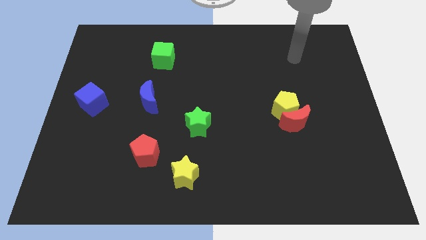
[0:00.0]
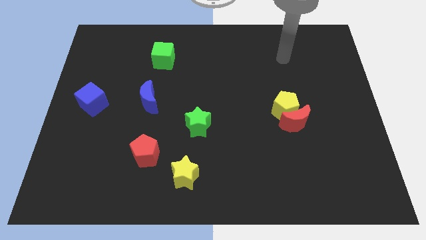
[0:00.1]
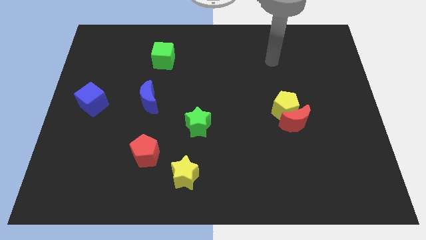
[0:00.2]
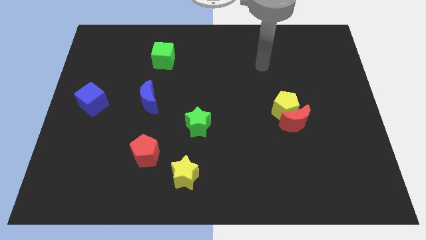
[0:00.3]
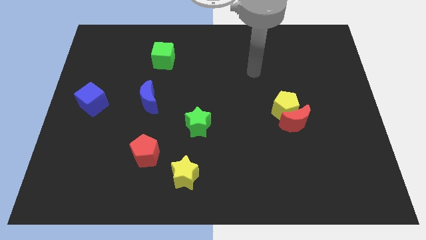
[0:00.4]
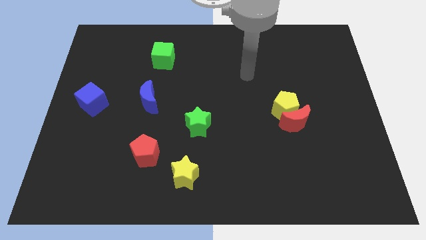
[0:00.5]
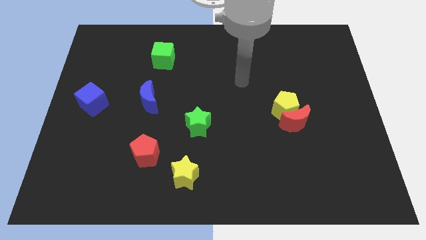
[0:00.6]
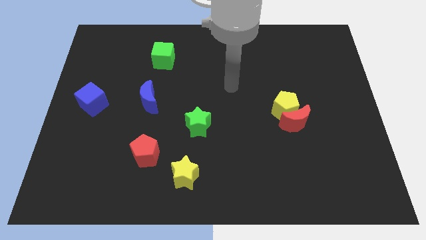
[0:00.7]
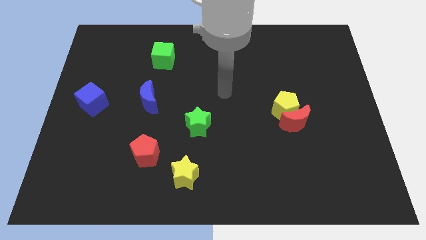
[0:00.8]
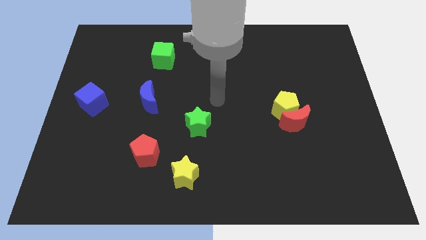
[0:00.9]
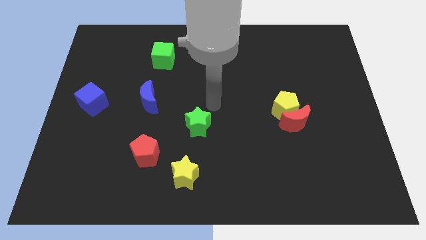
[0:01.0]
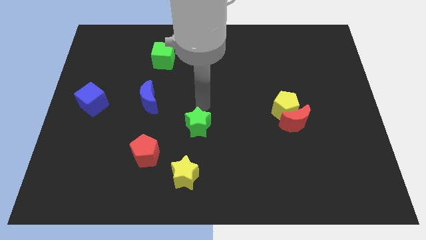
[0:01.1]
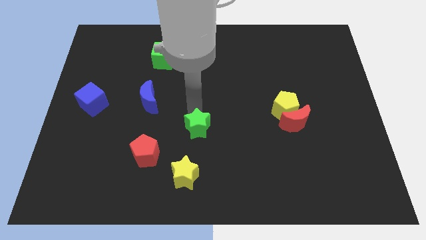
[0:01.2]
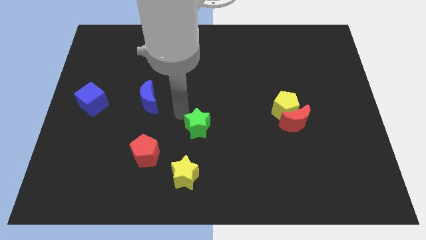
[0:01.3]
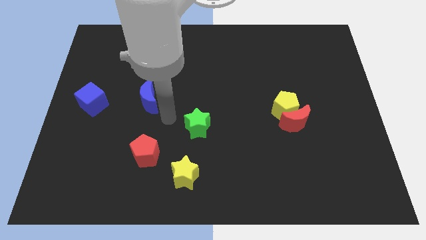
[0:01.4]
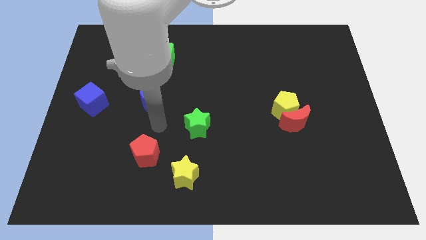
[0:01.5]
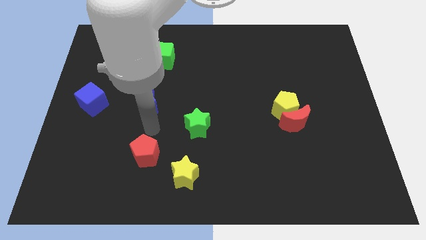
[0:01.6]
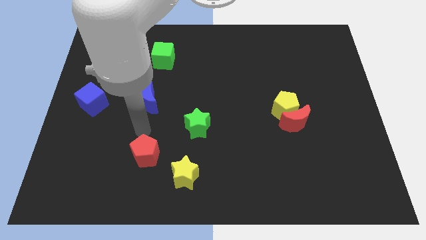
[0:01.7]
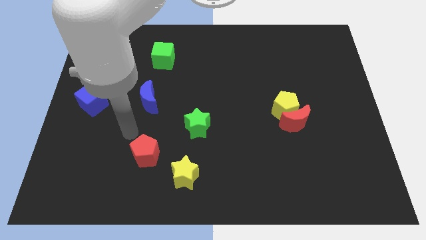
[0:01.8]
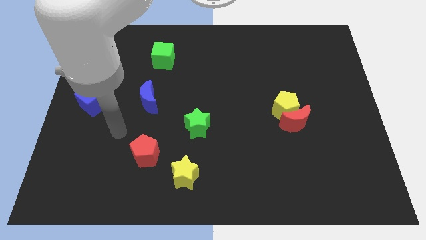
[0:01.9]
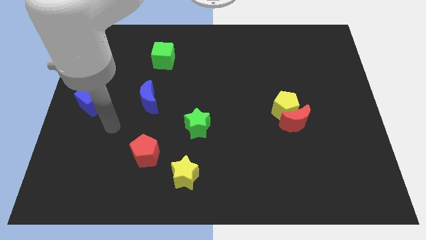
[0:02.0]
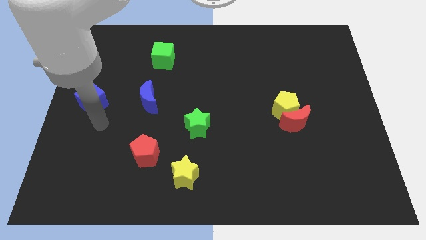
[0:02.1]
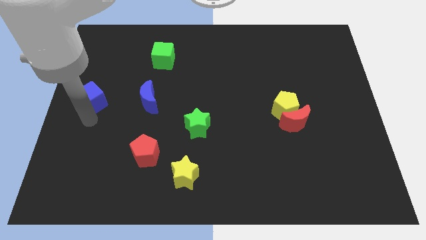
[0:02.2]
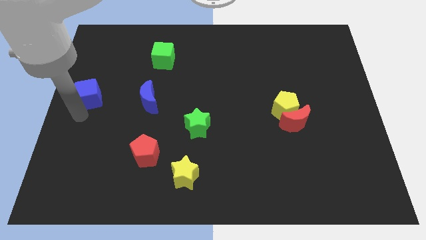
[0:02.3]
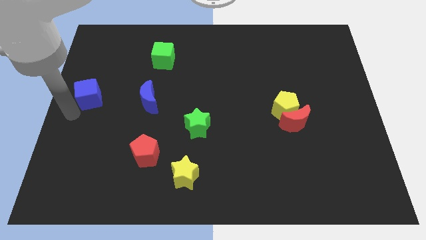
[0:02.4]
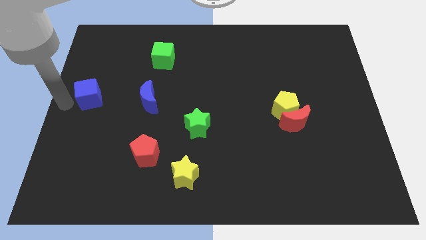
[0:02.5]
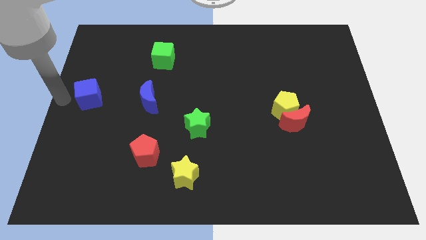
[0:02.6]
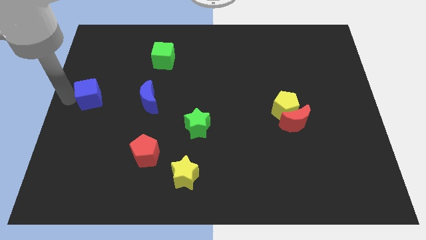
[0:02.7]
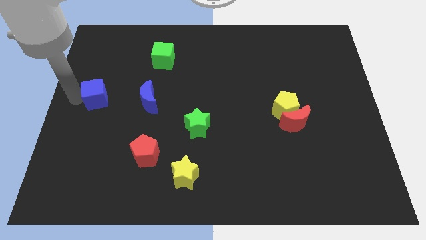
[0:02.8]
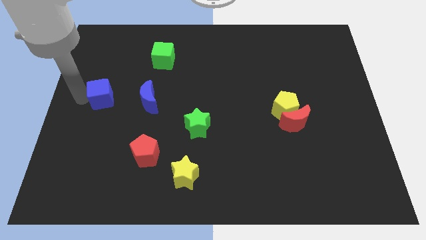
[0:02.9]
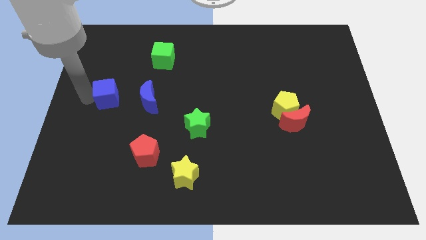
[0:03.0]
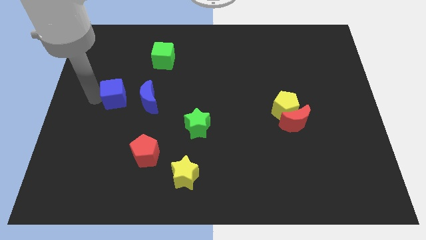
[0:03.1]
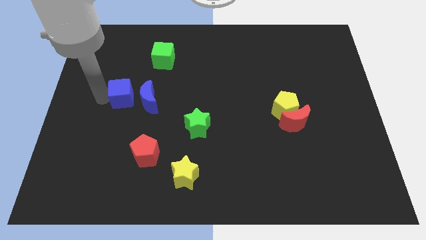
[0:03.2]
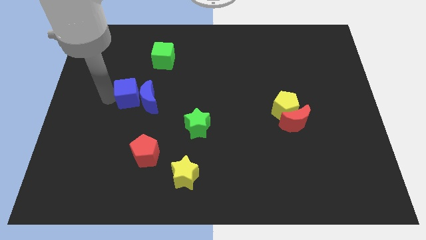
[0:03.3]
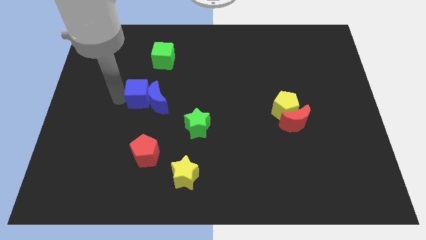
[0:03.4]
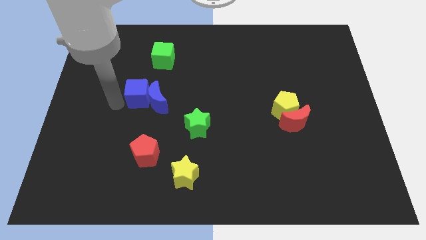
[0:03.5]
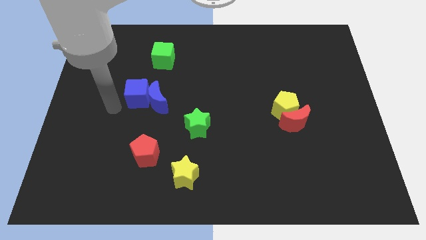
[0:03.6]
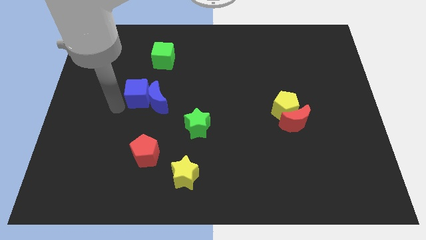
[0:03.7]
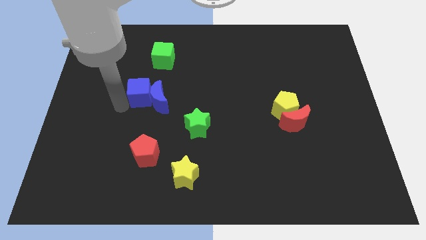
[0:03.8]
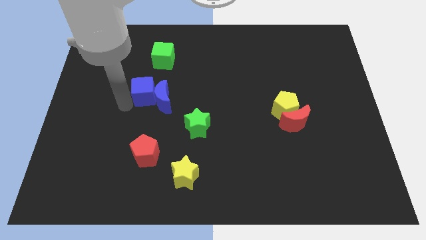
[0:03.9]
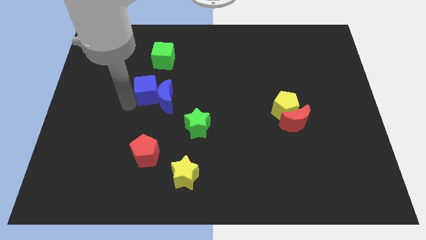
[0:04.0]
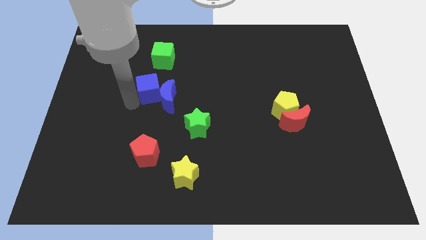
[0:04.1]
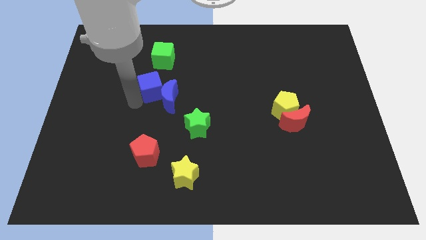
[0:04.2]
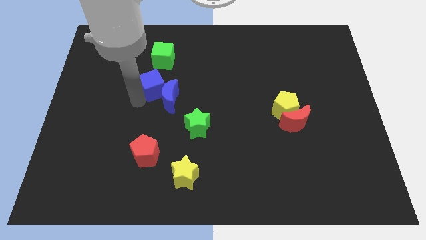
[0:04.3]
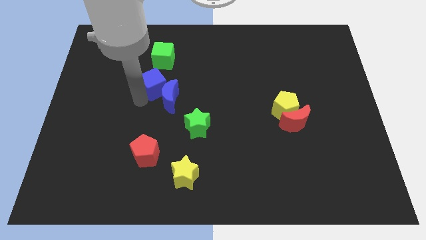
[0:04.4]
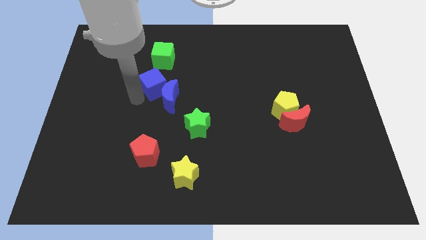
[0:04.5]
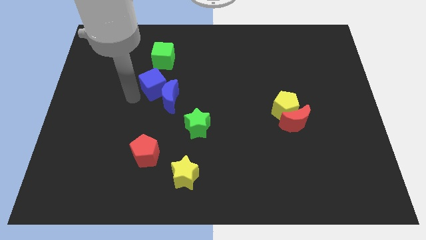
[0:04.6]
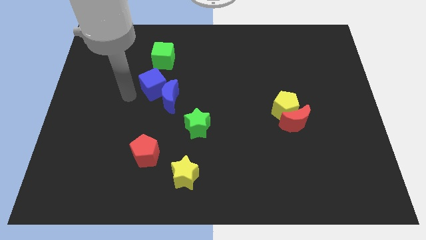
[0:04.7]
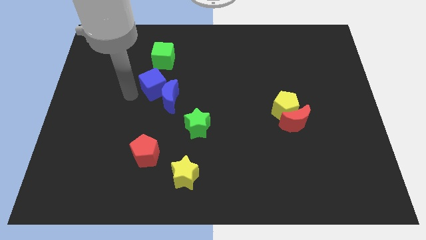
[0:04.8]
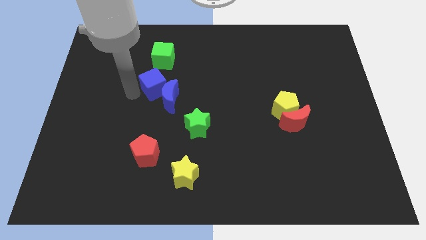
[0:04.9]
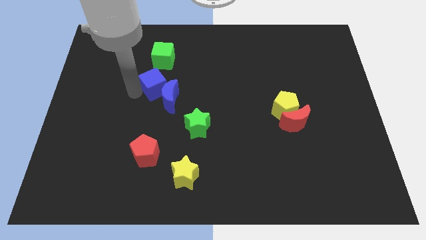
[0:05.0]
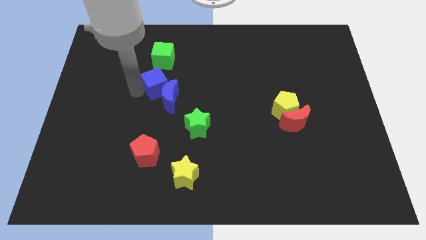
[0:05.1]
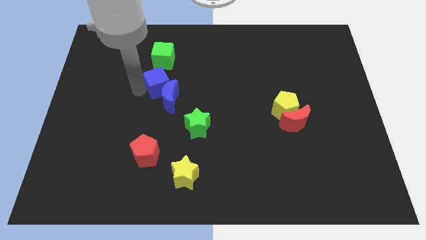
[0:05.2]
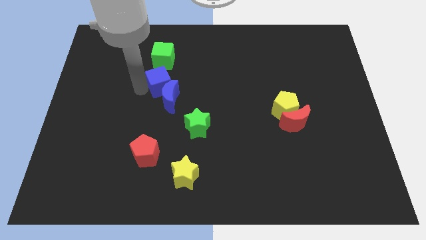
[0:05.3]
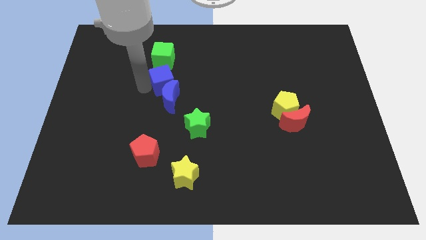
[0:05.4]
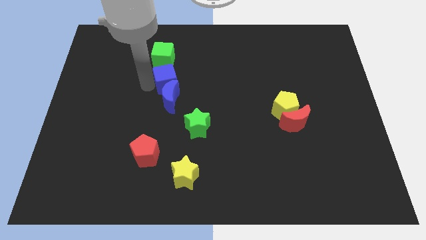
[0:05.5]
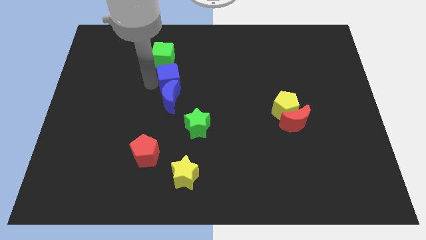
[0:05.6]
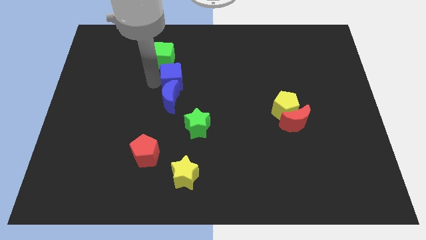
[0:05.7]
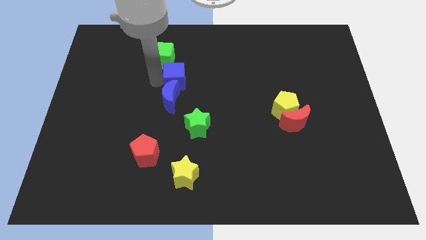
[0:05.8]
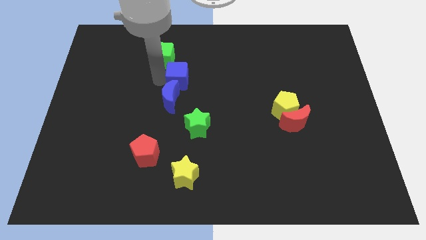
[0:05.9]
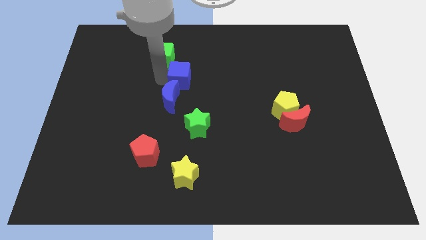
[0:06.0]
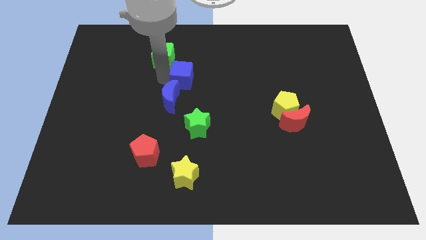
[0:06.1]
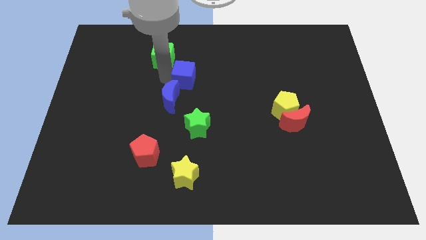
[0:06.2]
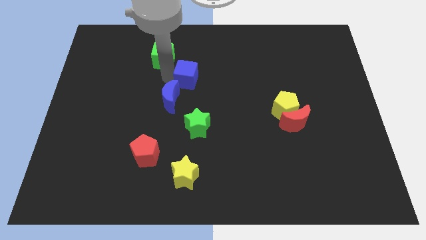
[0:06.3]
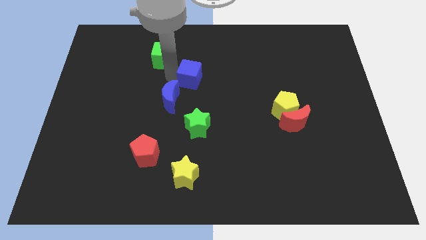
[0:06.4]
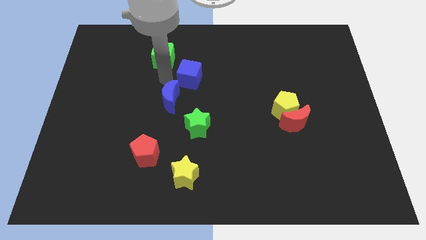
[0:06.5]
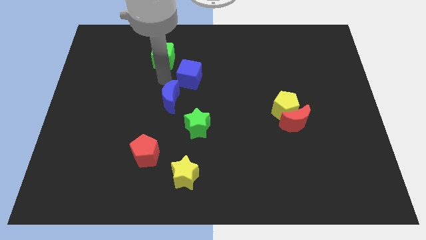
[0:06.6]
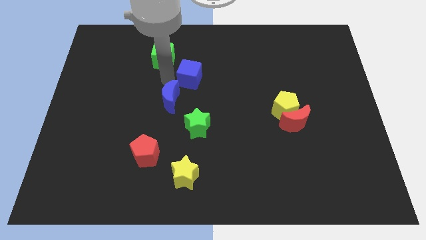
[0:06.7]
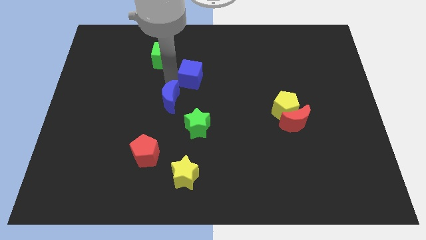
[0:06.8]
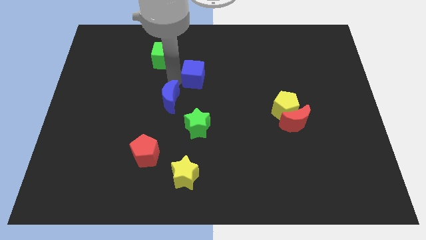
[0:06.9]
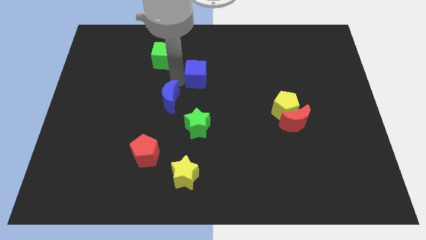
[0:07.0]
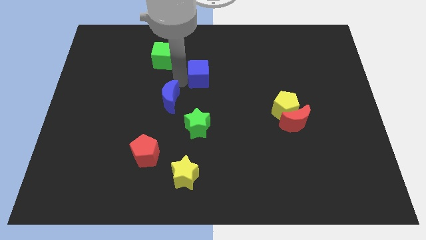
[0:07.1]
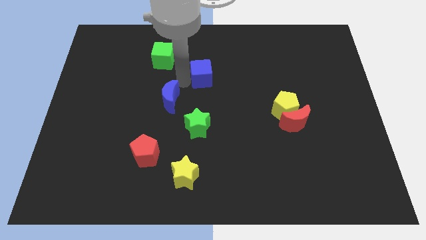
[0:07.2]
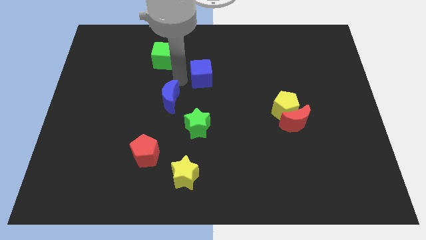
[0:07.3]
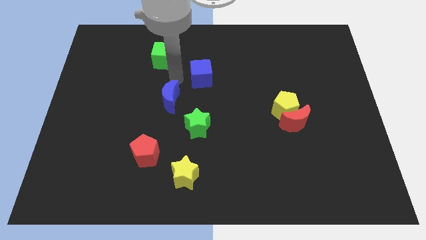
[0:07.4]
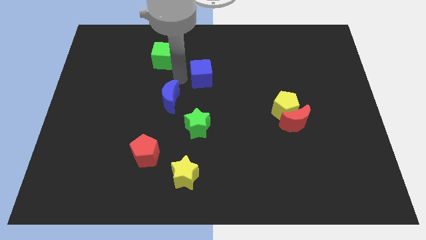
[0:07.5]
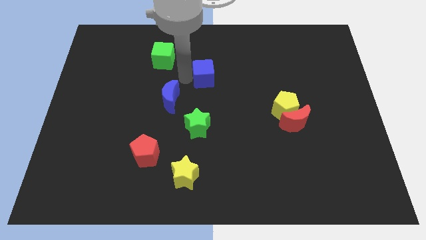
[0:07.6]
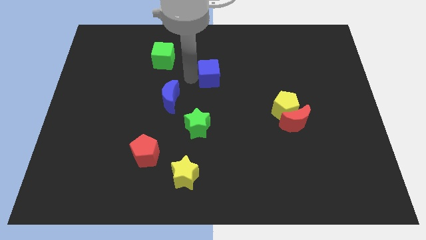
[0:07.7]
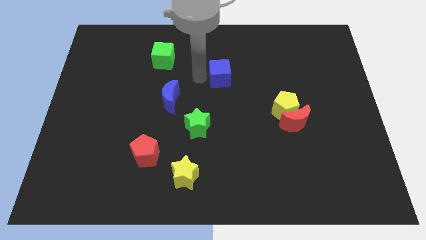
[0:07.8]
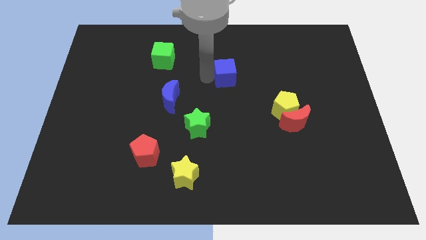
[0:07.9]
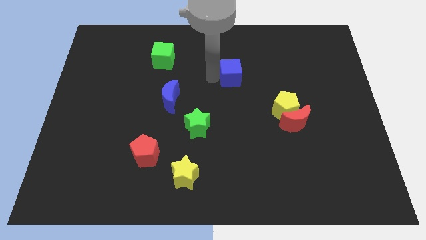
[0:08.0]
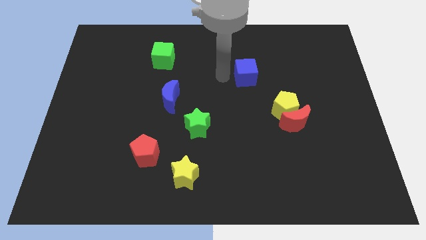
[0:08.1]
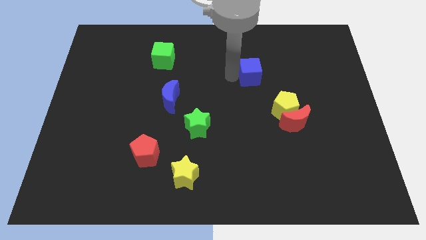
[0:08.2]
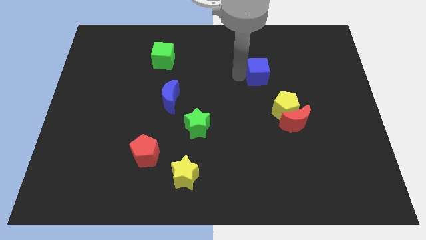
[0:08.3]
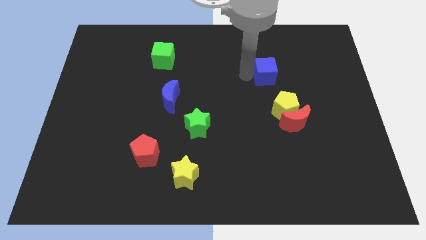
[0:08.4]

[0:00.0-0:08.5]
put the blue cube to the top of the yellow pentagon
